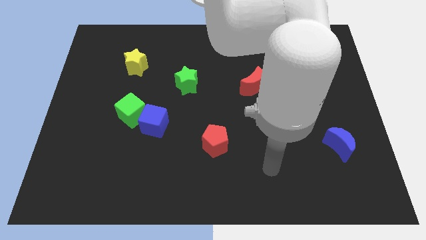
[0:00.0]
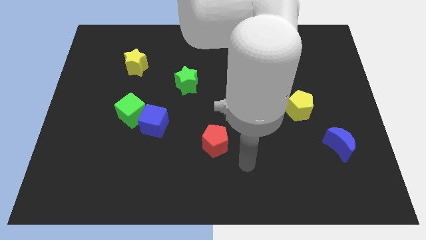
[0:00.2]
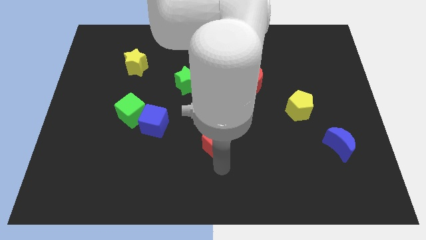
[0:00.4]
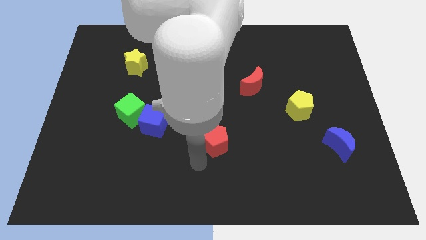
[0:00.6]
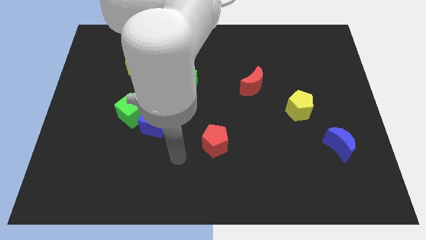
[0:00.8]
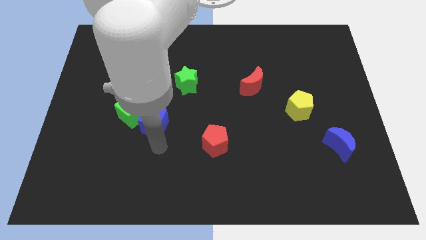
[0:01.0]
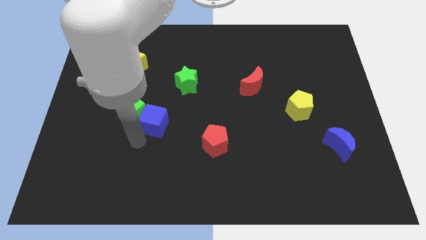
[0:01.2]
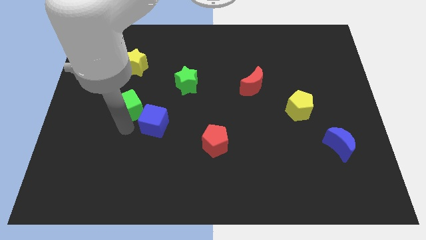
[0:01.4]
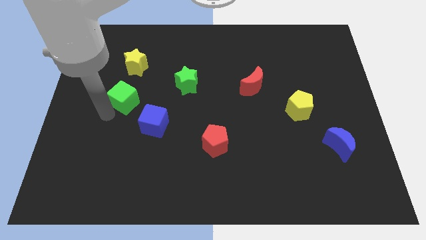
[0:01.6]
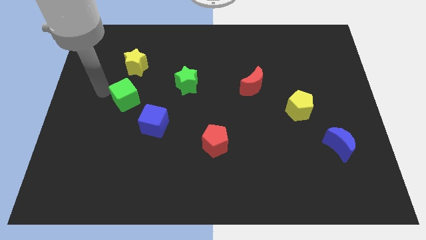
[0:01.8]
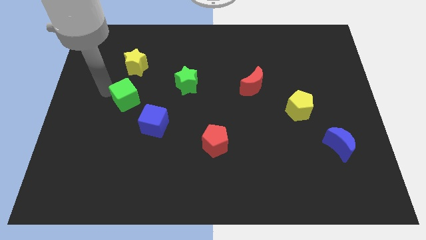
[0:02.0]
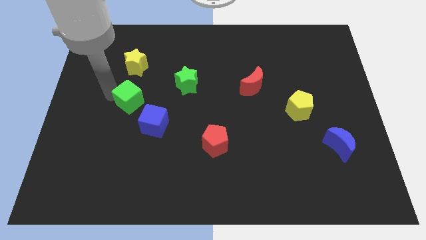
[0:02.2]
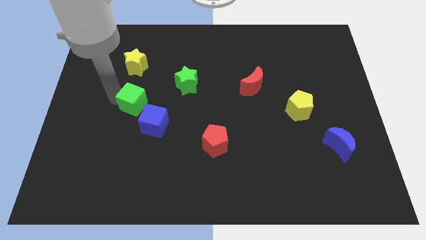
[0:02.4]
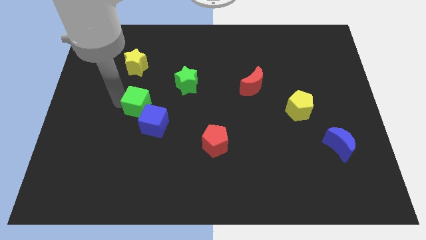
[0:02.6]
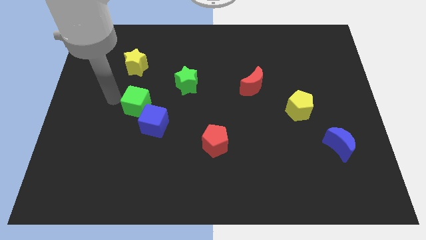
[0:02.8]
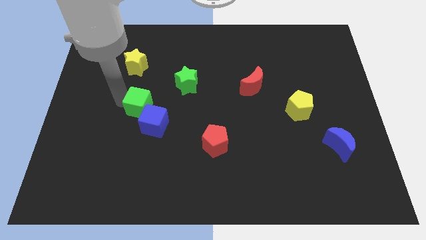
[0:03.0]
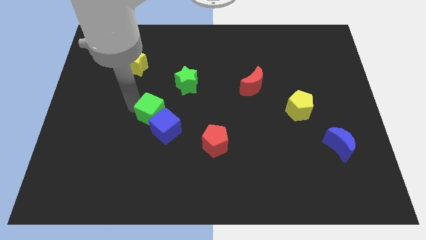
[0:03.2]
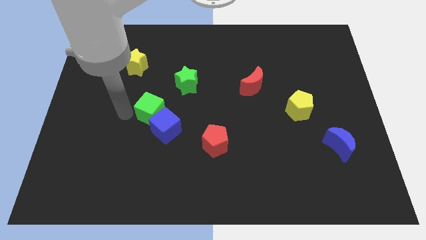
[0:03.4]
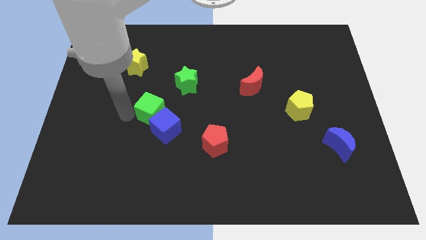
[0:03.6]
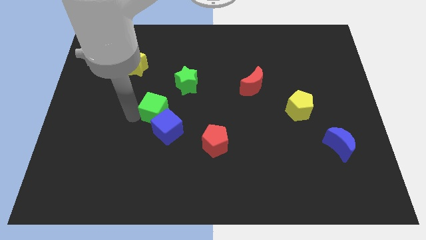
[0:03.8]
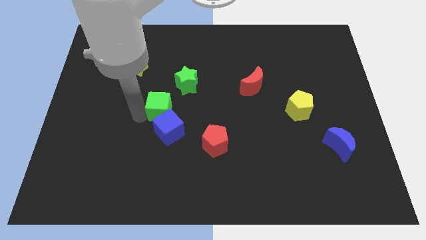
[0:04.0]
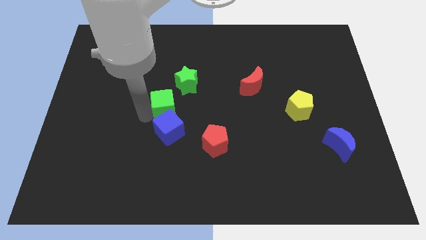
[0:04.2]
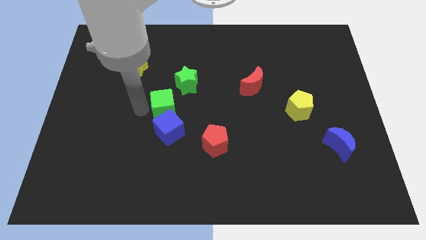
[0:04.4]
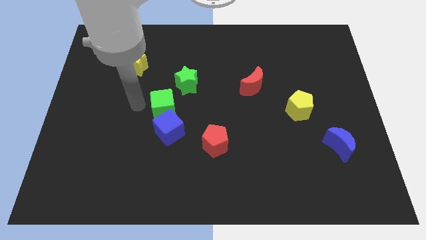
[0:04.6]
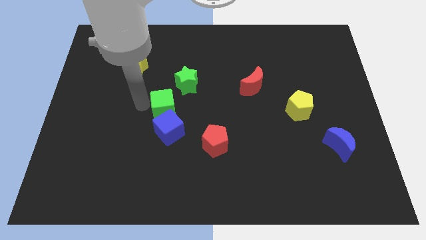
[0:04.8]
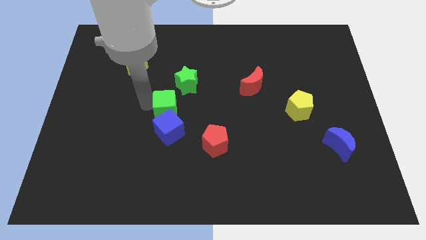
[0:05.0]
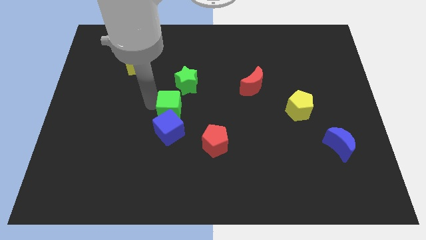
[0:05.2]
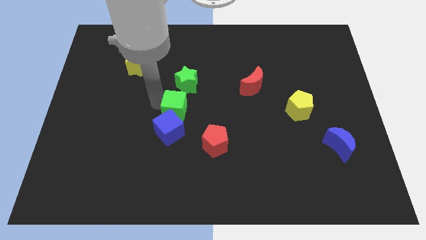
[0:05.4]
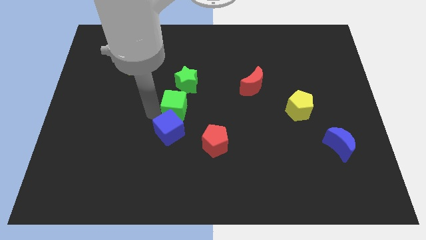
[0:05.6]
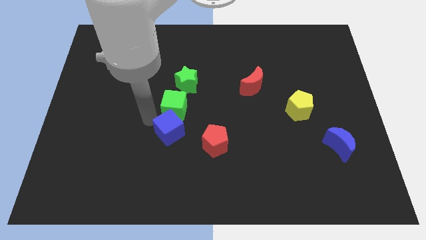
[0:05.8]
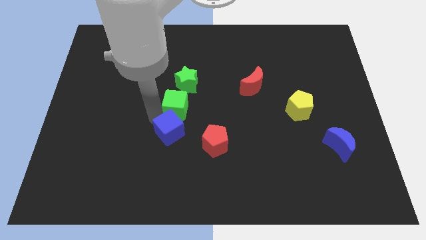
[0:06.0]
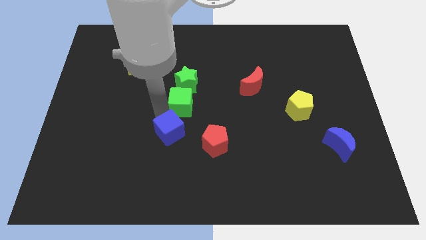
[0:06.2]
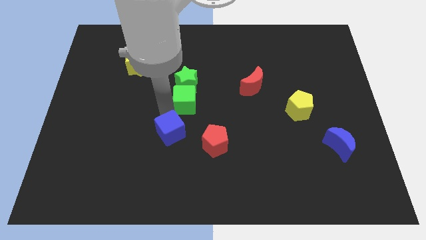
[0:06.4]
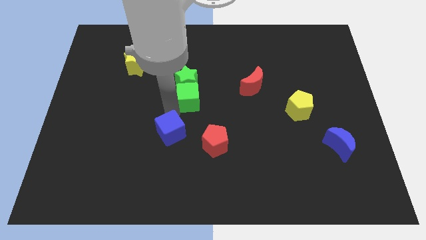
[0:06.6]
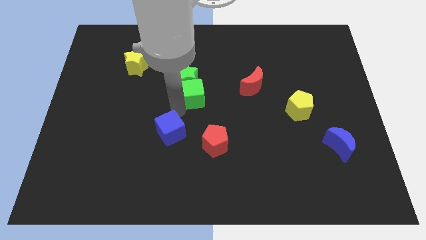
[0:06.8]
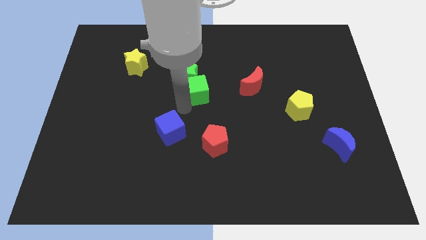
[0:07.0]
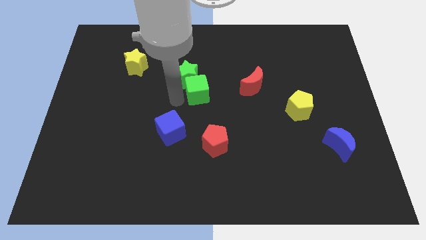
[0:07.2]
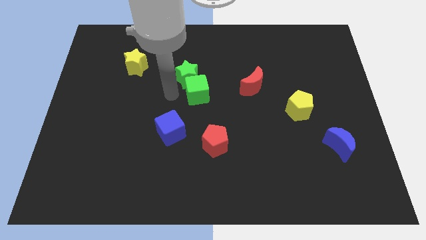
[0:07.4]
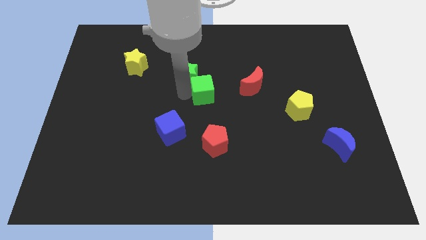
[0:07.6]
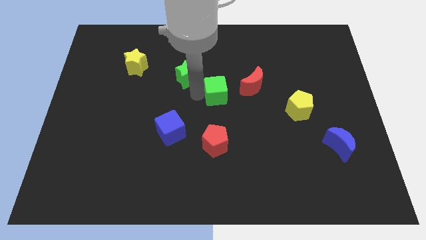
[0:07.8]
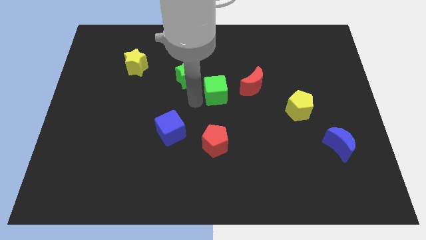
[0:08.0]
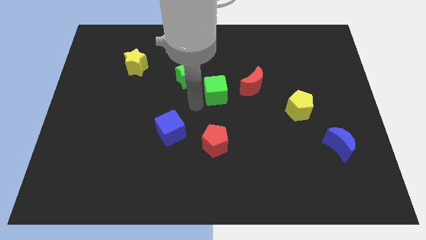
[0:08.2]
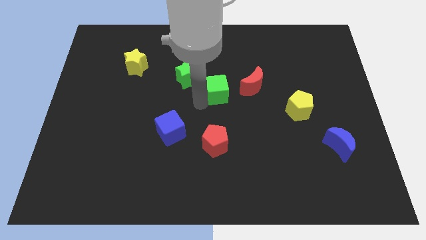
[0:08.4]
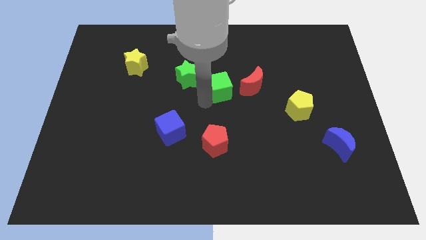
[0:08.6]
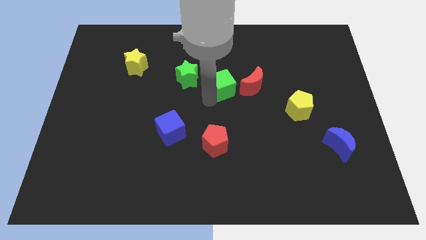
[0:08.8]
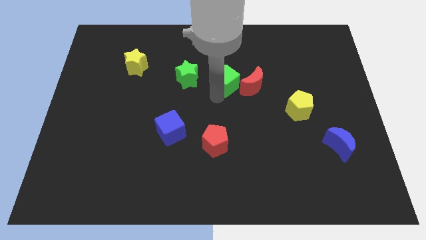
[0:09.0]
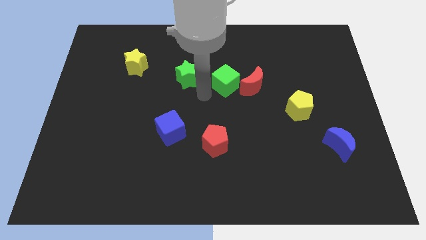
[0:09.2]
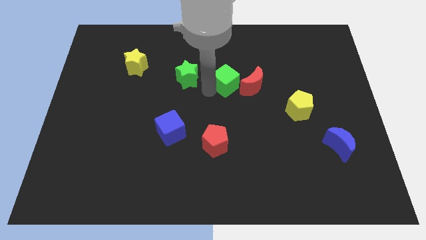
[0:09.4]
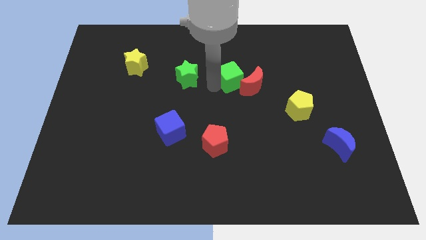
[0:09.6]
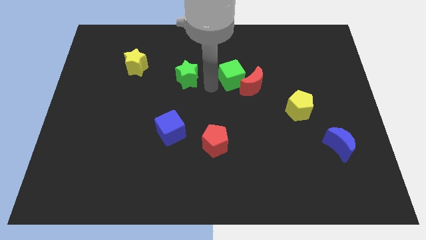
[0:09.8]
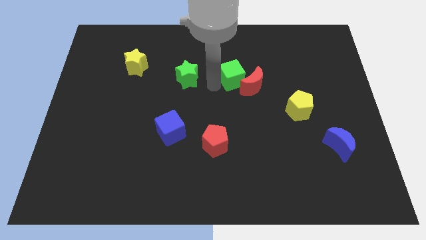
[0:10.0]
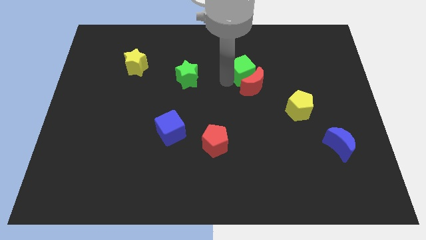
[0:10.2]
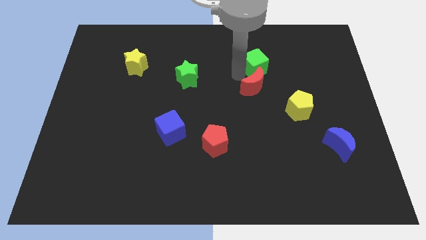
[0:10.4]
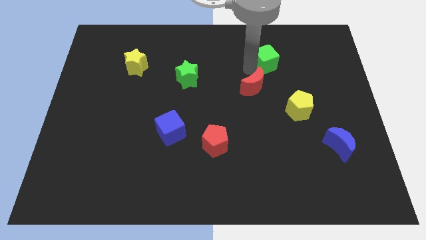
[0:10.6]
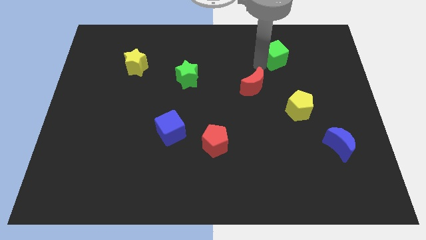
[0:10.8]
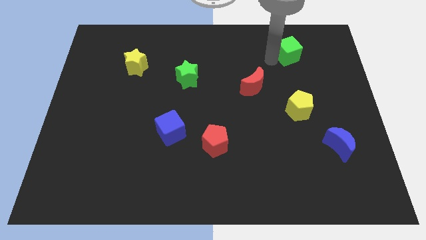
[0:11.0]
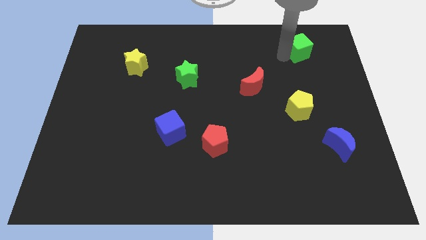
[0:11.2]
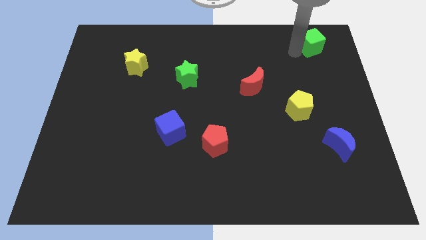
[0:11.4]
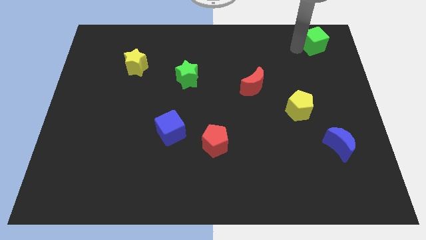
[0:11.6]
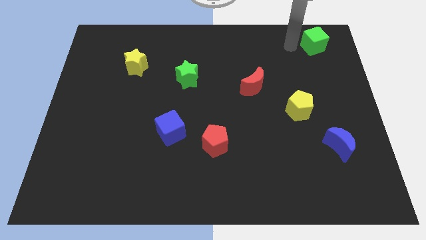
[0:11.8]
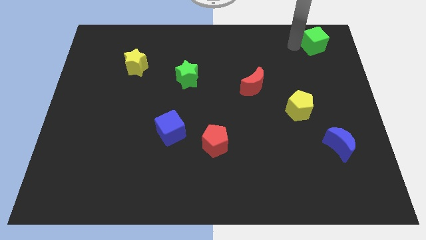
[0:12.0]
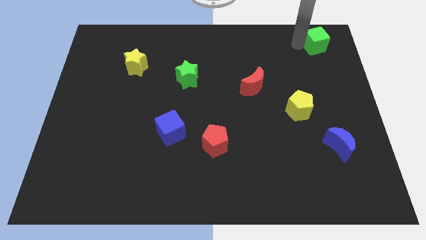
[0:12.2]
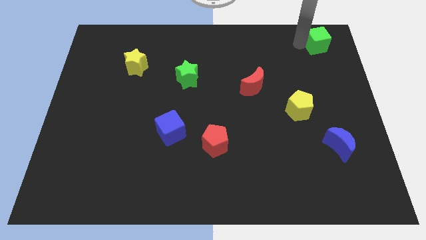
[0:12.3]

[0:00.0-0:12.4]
slide the green cube to the upper right corner
